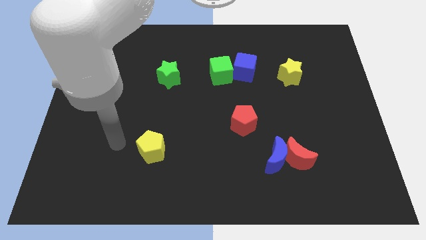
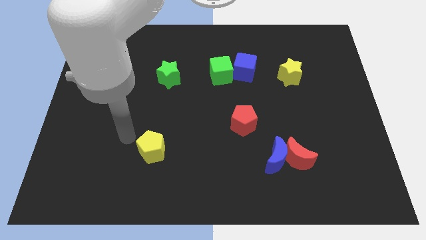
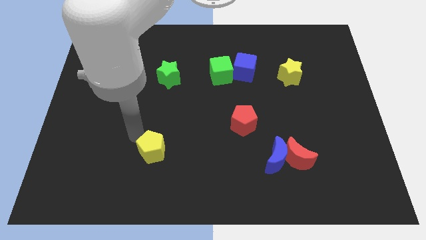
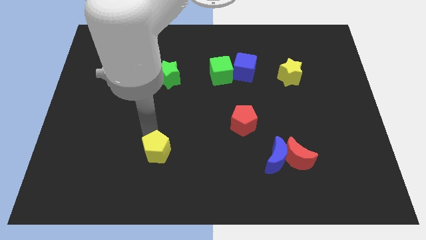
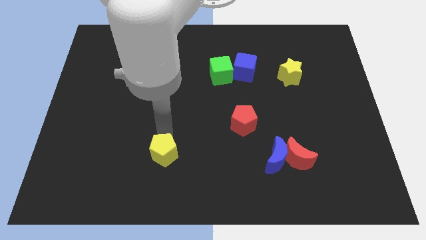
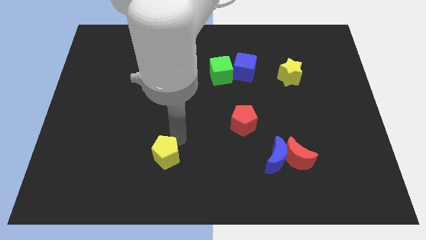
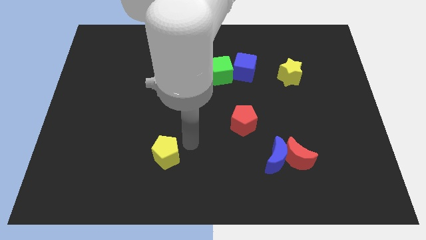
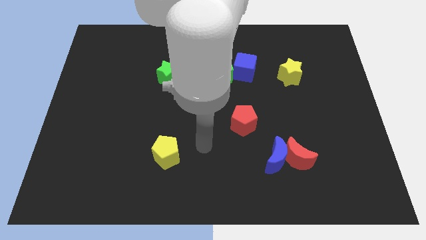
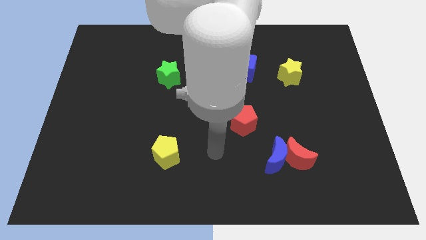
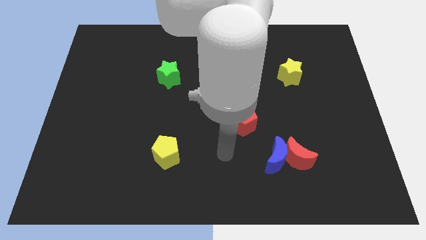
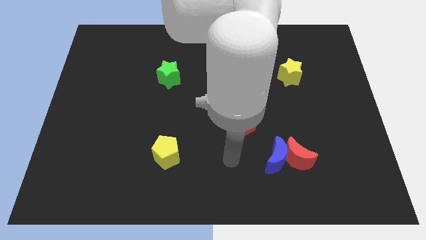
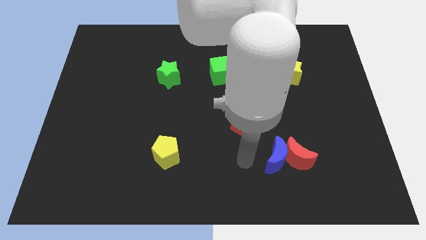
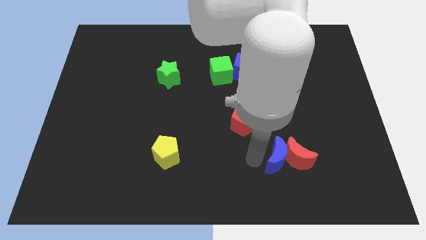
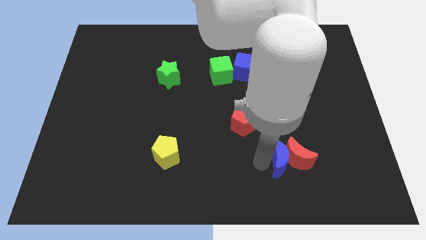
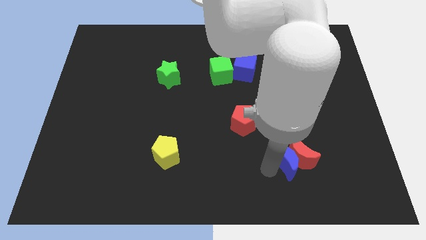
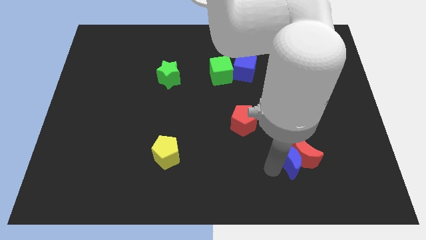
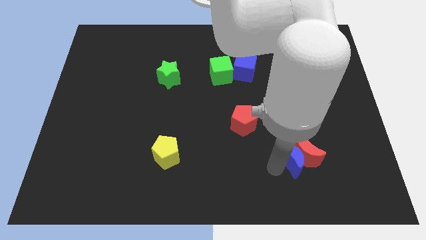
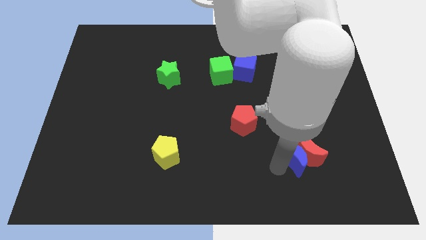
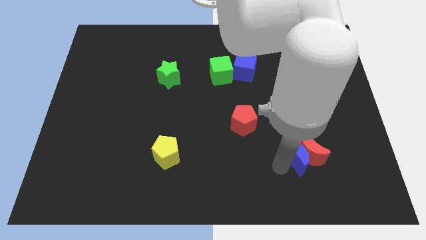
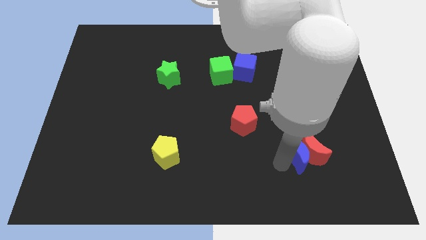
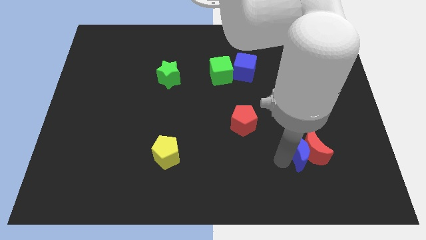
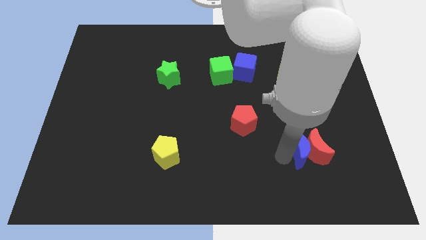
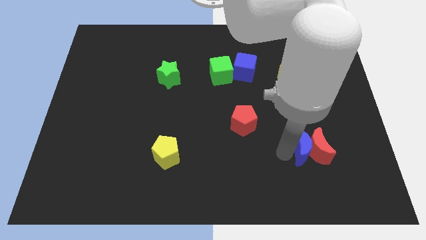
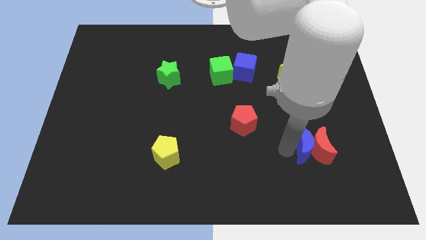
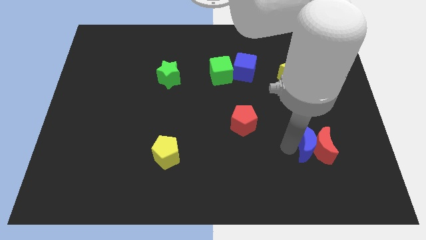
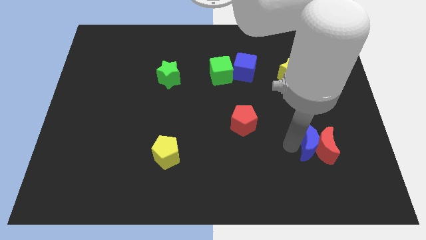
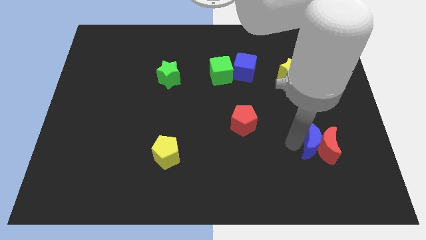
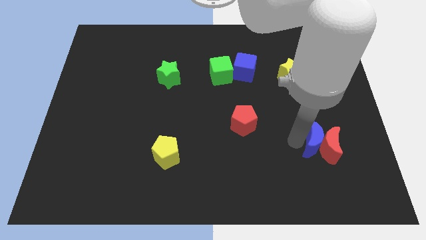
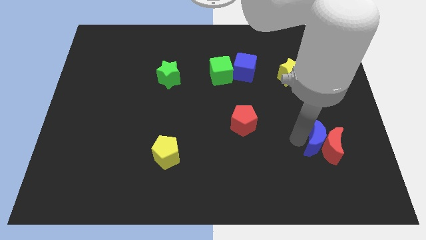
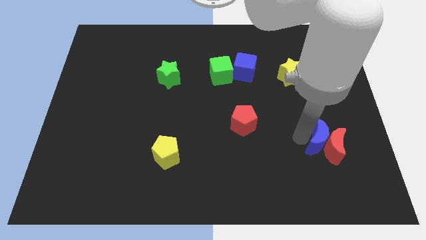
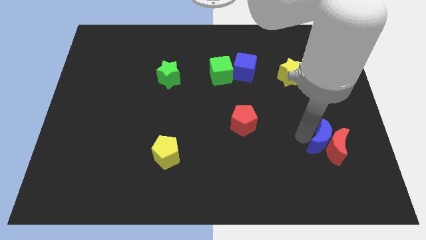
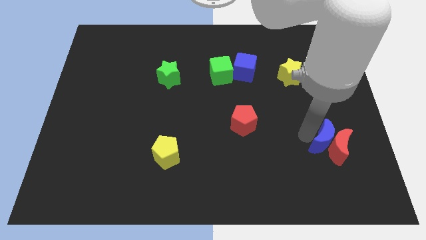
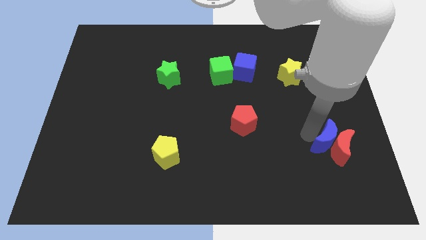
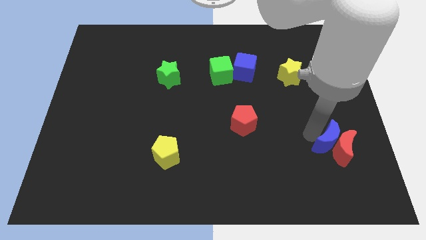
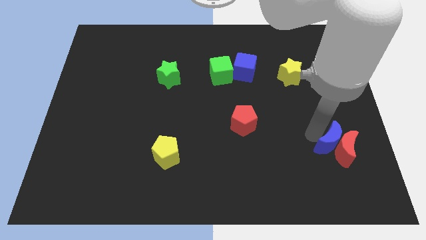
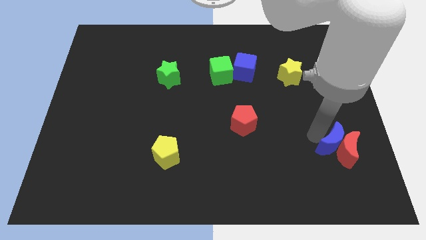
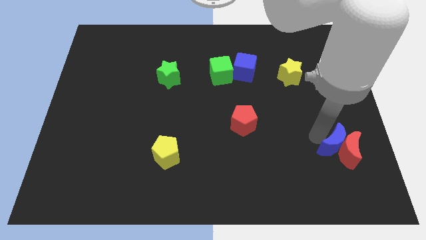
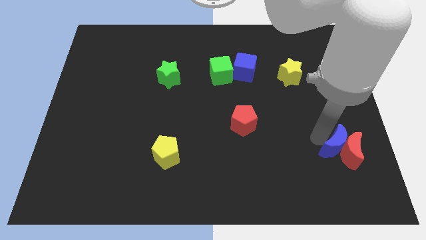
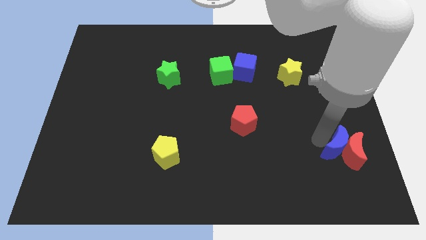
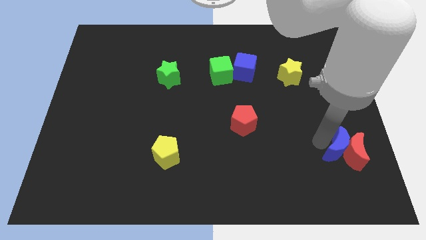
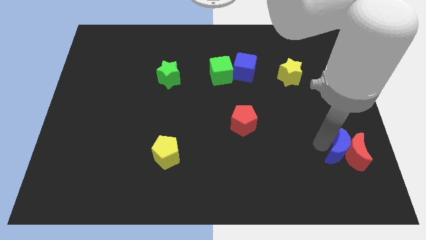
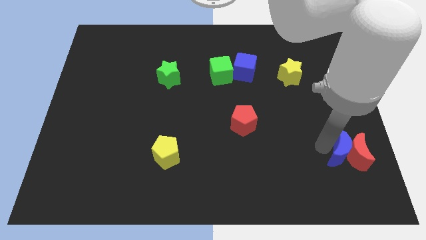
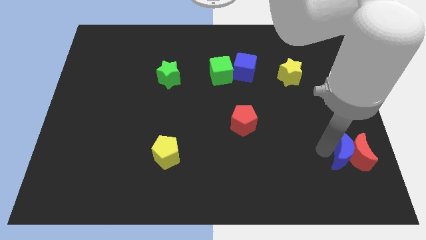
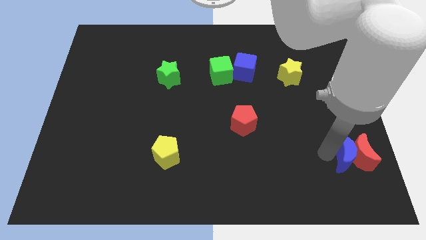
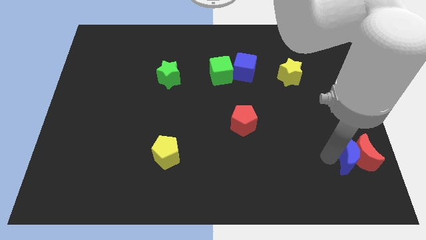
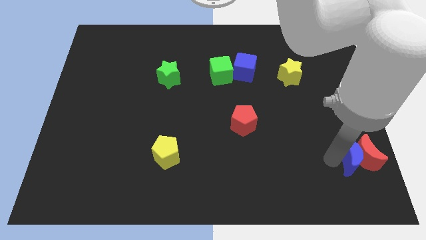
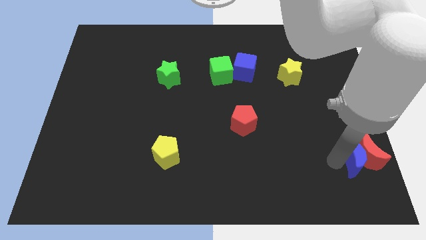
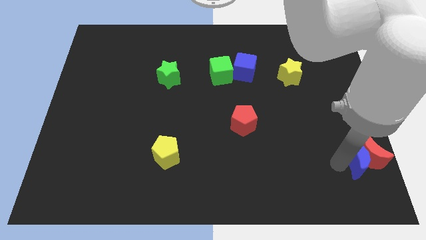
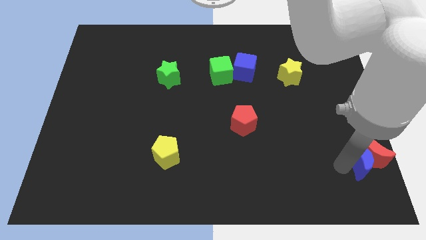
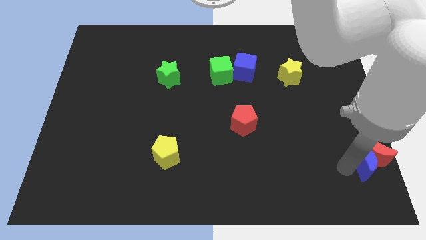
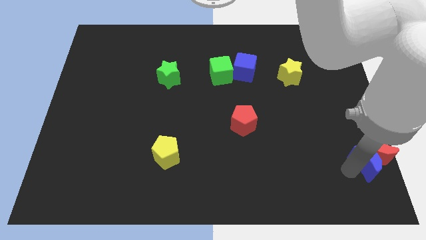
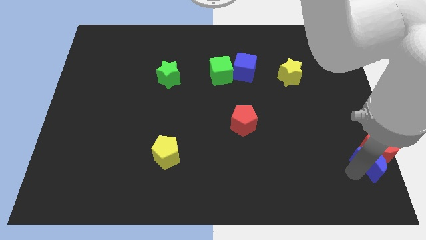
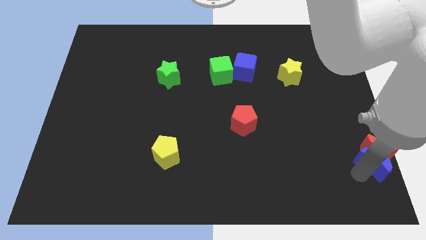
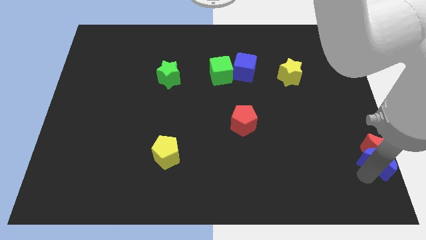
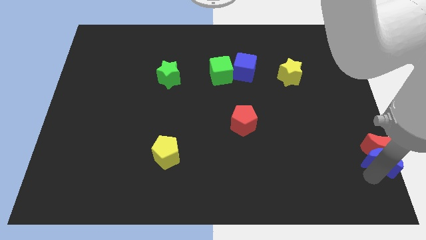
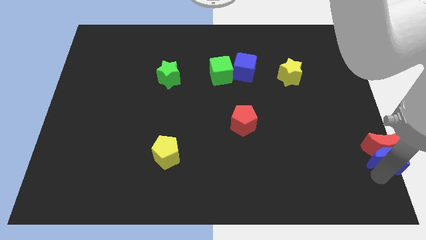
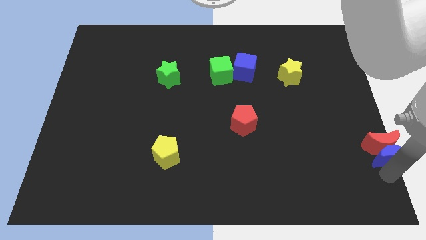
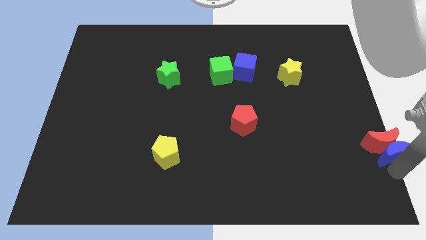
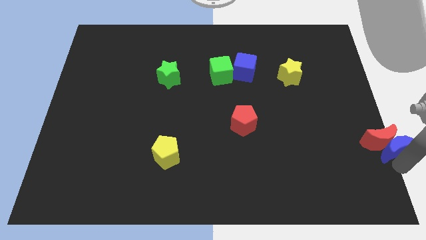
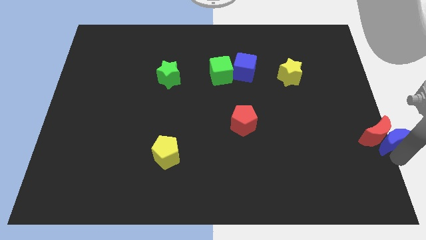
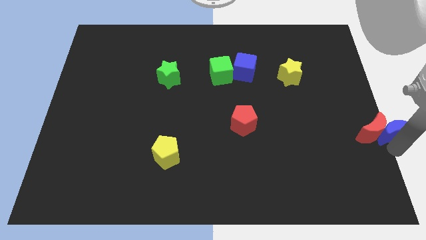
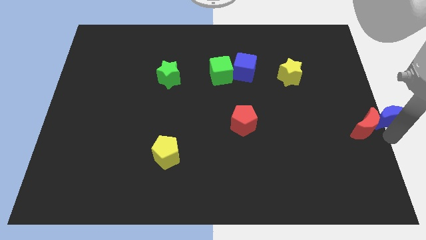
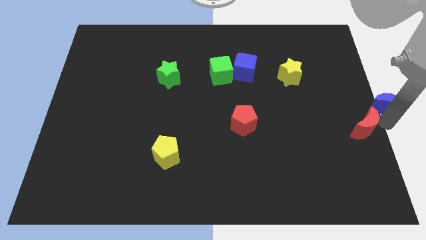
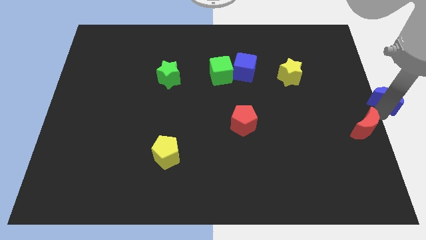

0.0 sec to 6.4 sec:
move the red moon away from the blue moon

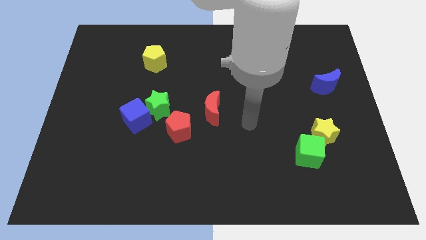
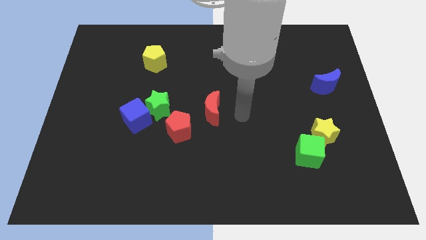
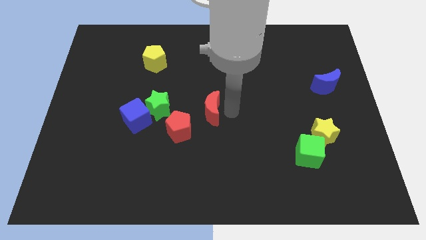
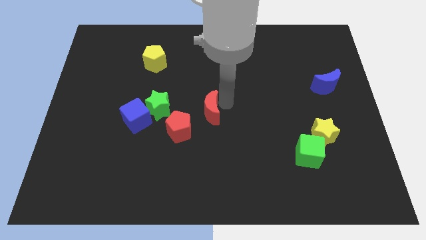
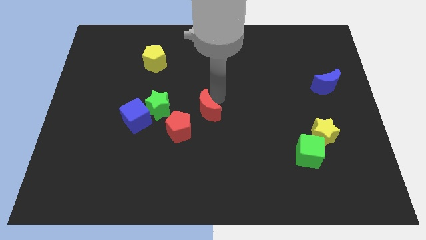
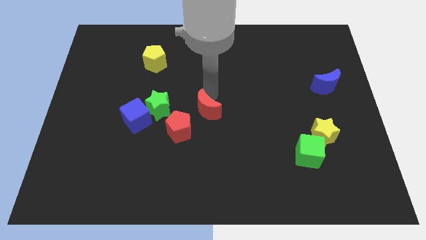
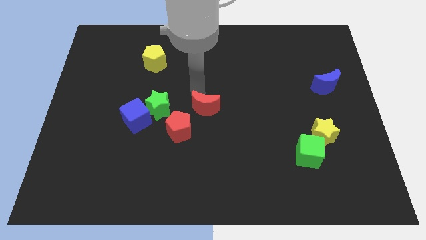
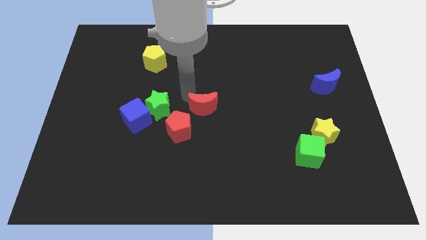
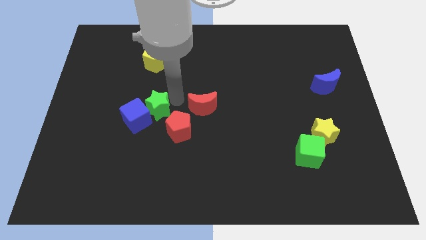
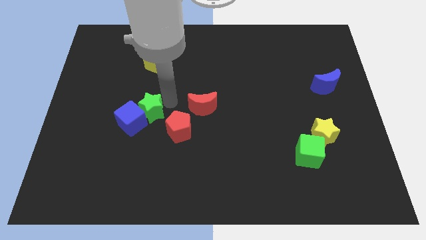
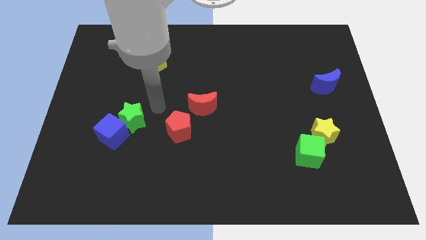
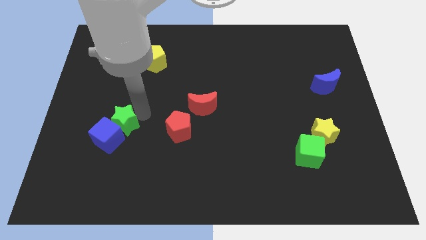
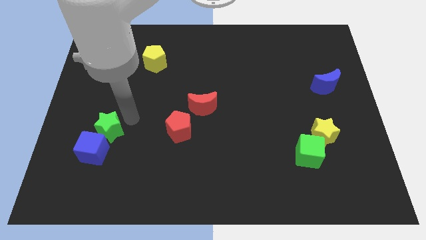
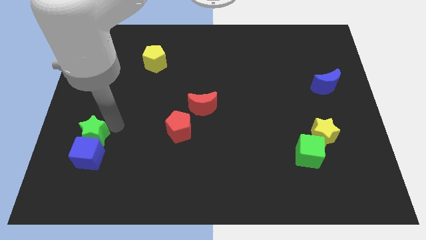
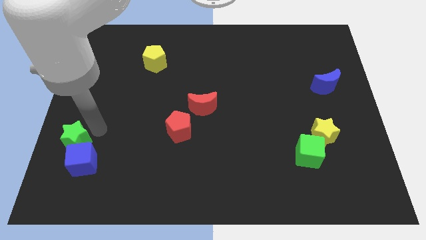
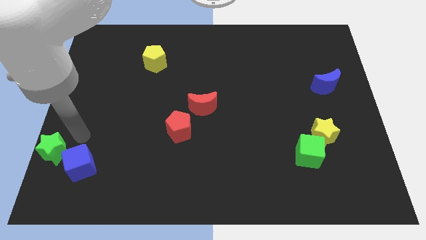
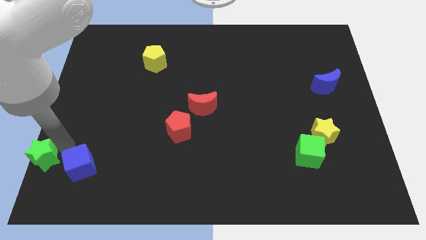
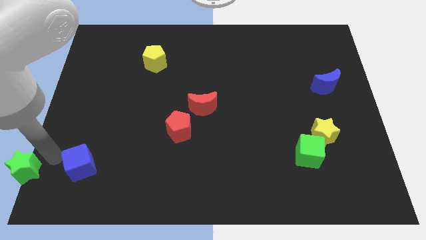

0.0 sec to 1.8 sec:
move the blue cube away from the green star

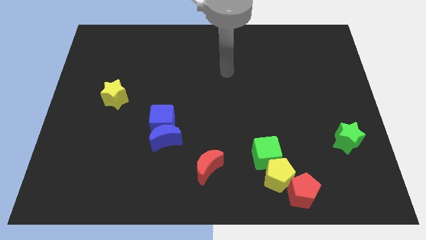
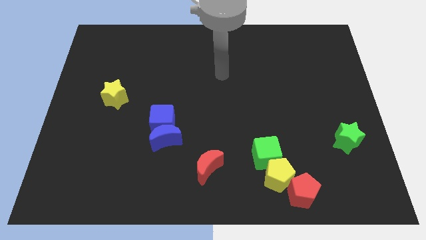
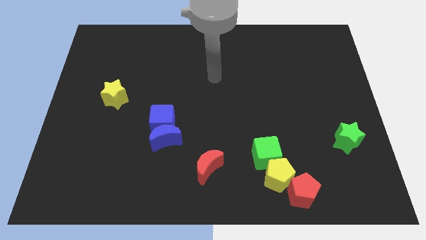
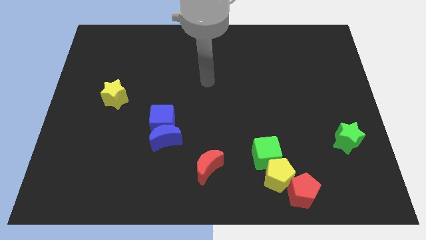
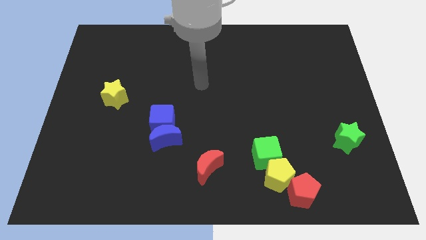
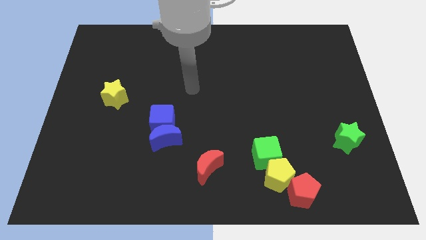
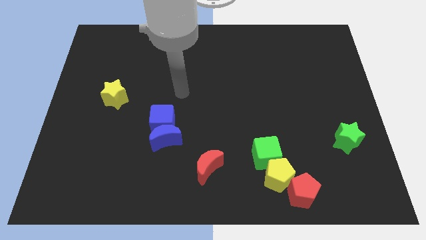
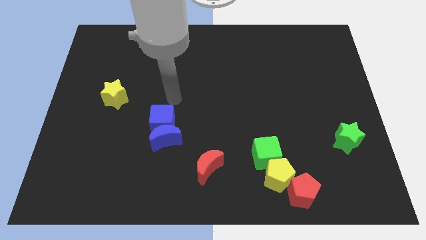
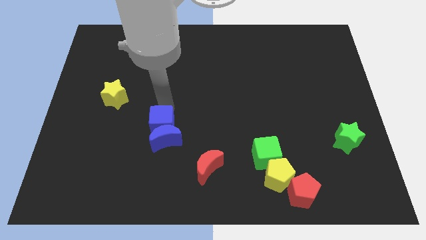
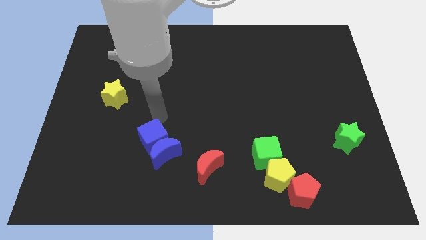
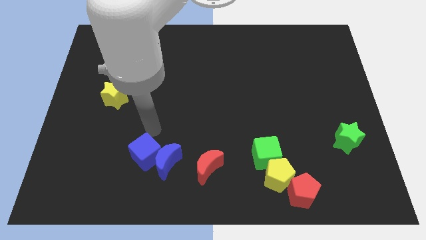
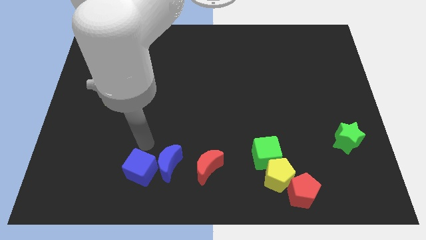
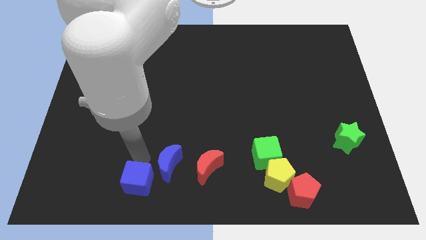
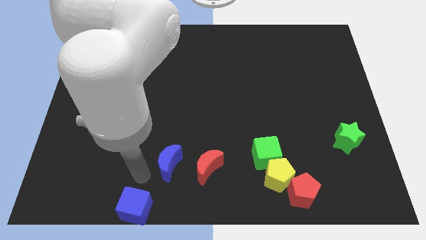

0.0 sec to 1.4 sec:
move the blue moon away from the blue cube
